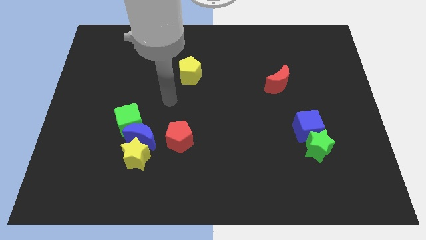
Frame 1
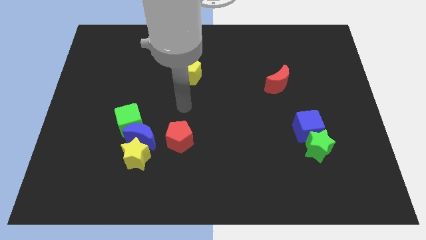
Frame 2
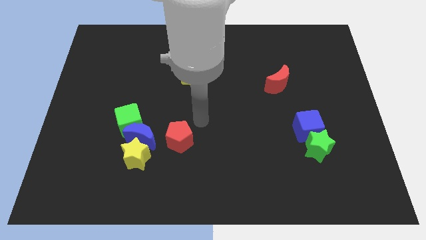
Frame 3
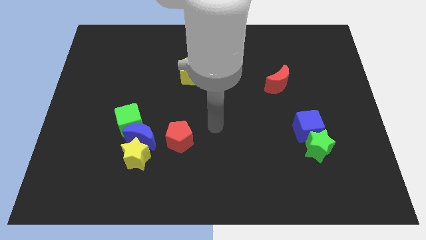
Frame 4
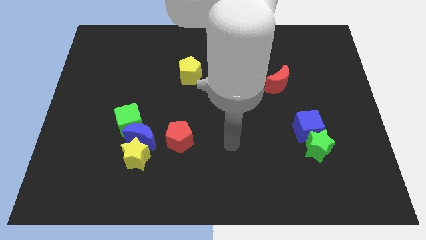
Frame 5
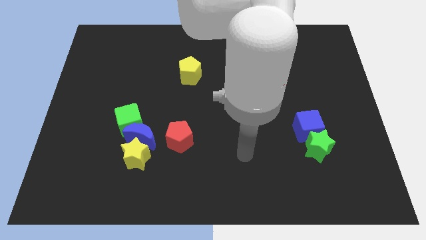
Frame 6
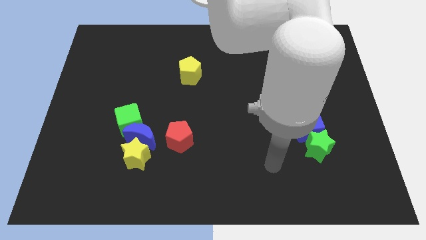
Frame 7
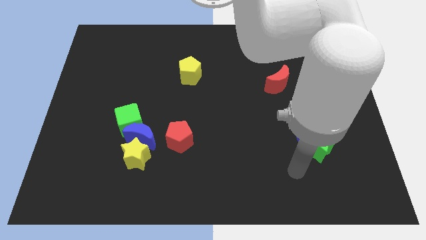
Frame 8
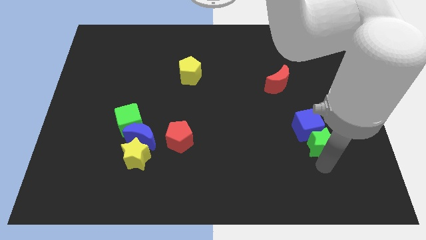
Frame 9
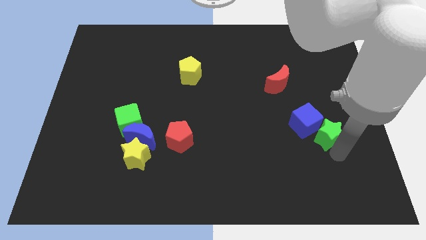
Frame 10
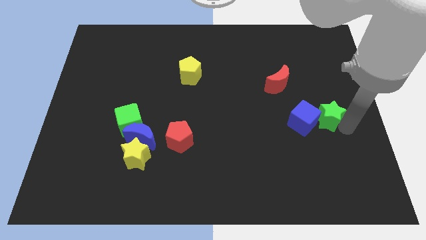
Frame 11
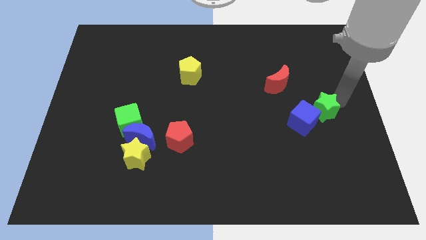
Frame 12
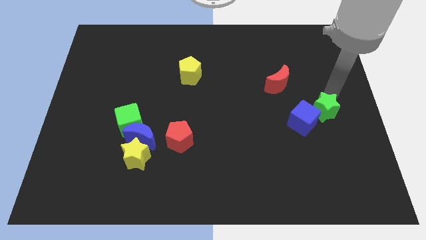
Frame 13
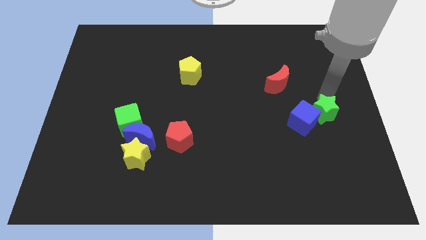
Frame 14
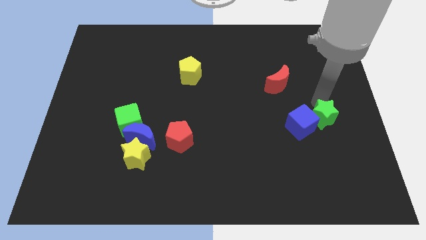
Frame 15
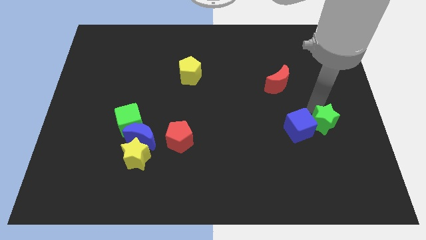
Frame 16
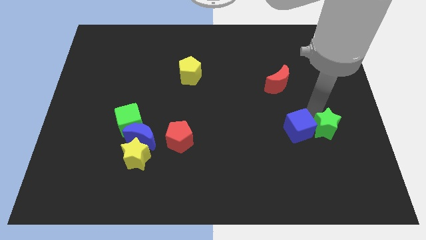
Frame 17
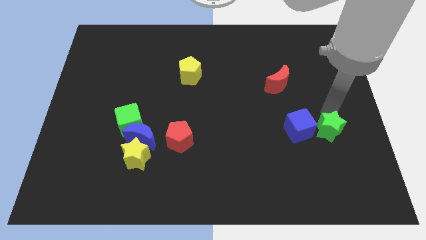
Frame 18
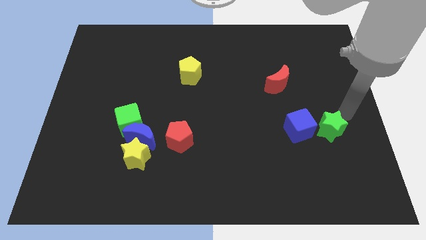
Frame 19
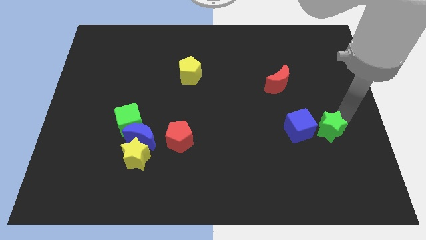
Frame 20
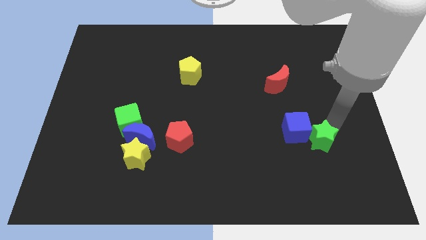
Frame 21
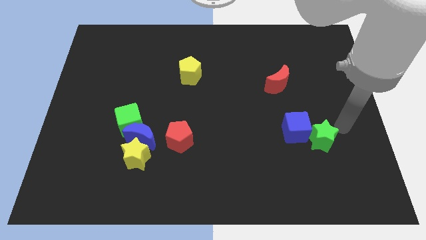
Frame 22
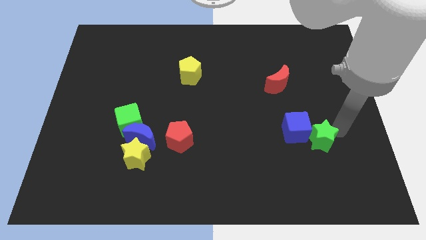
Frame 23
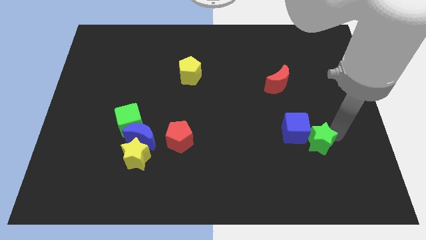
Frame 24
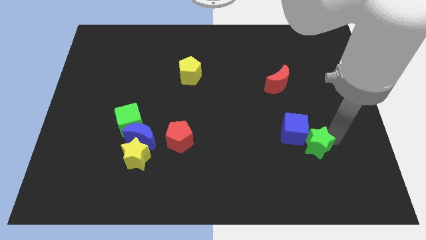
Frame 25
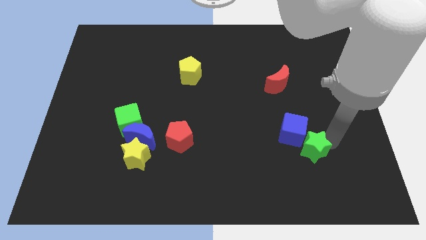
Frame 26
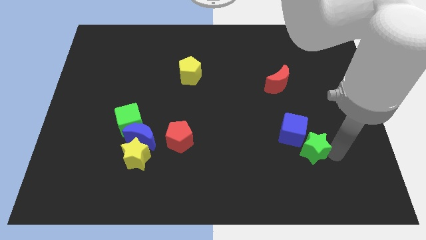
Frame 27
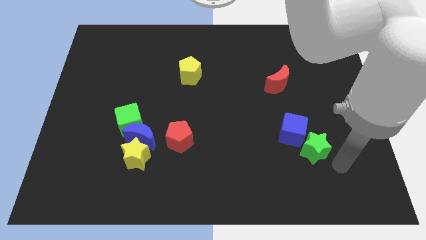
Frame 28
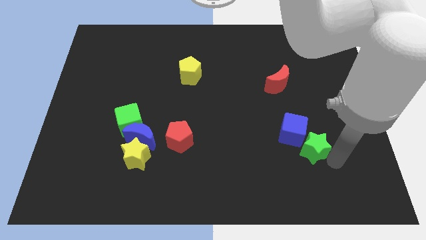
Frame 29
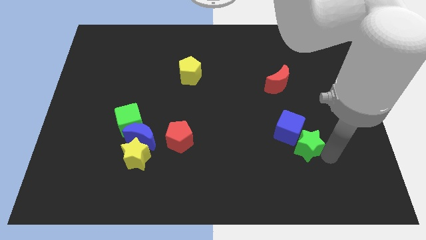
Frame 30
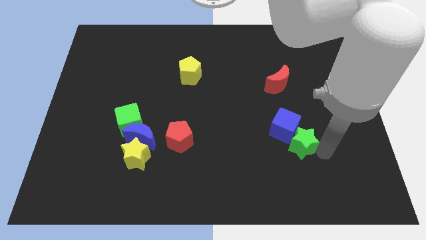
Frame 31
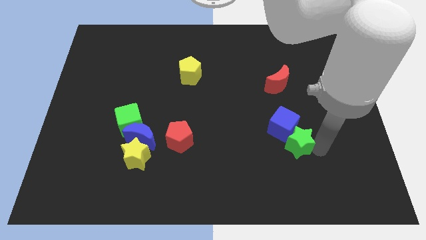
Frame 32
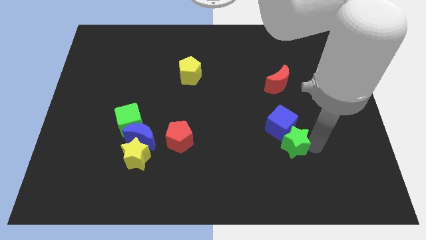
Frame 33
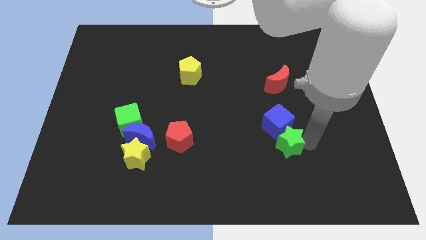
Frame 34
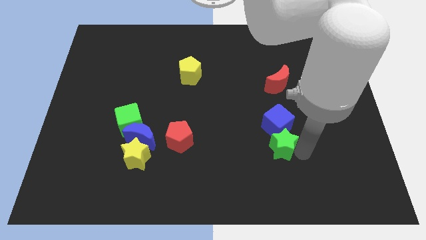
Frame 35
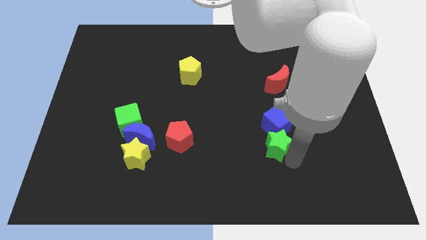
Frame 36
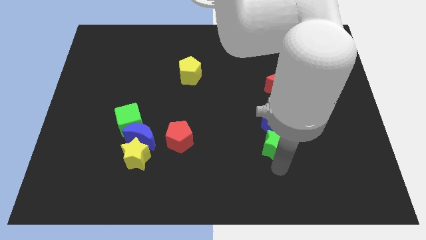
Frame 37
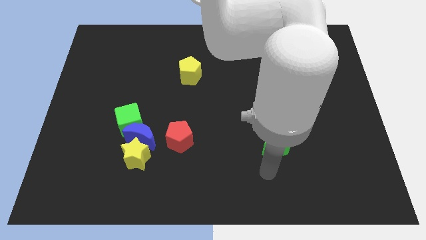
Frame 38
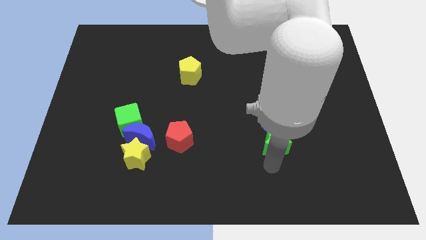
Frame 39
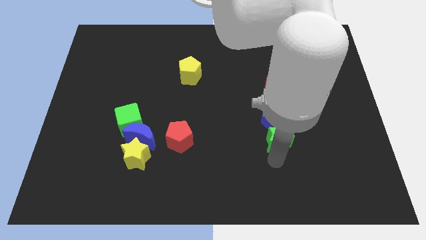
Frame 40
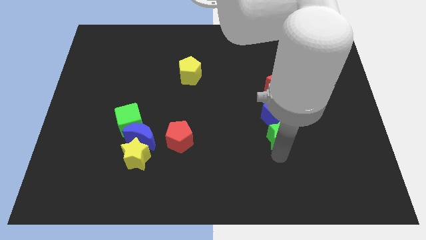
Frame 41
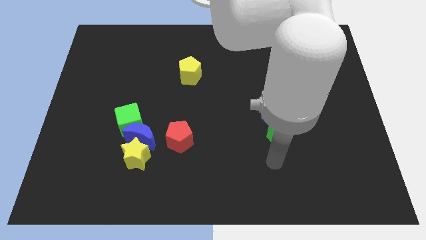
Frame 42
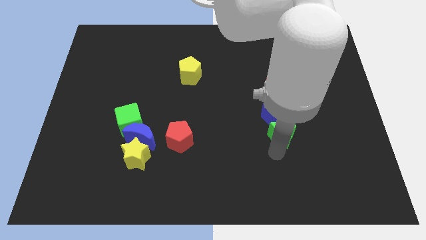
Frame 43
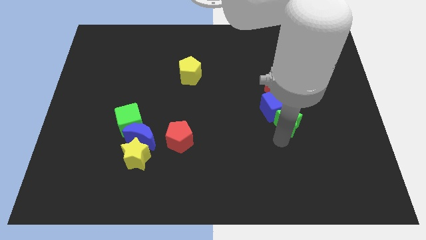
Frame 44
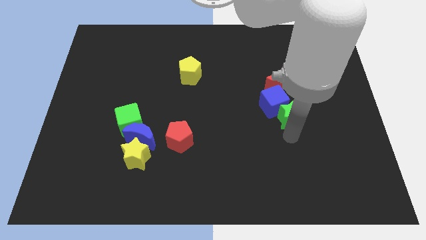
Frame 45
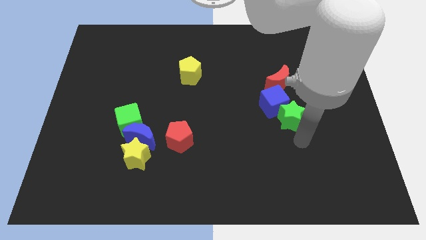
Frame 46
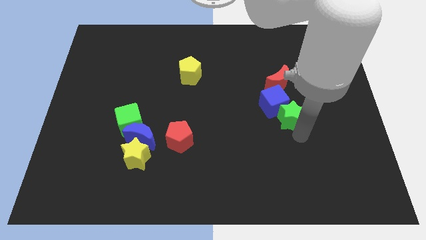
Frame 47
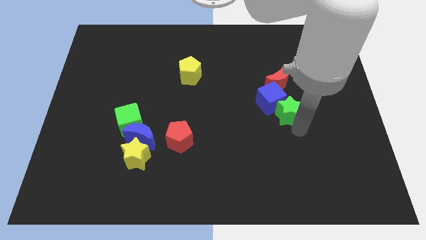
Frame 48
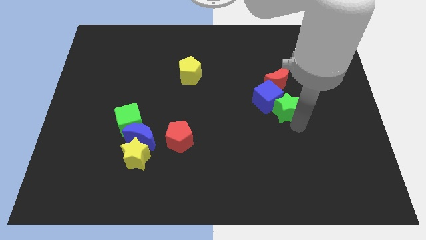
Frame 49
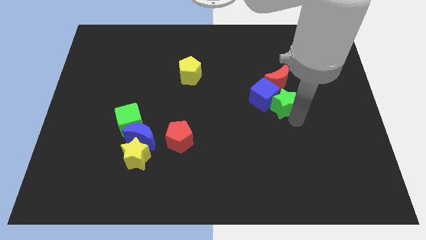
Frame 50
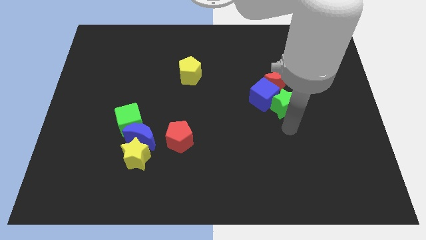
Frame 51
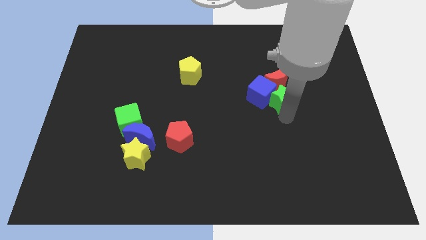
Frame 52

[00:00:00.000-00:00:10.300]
put the green star to the red moon

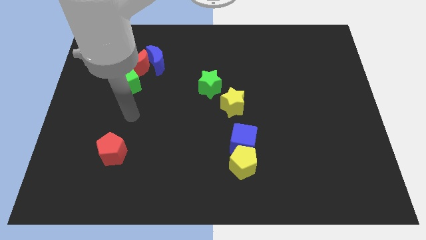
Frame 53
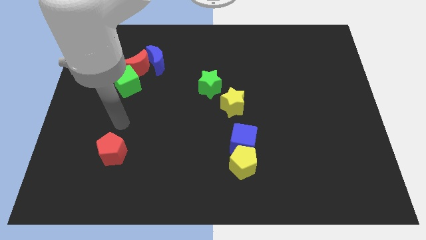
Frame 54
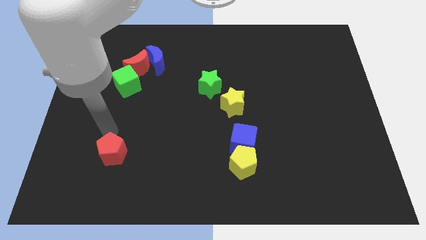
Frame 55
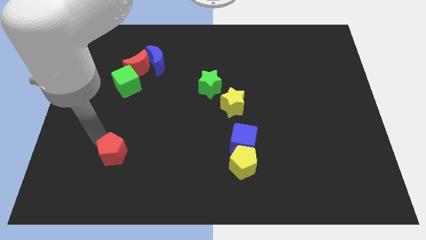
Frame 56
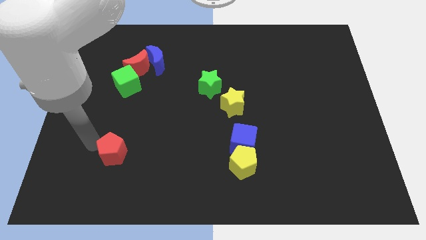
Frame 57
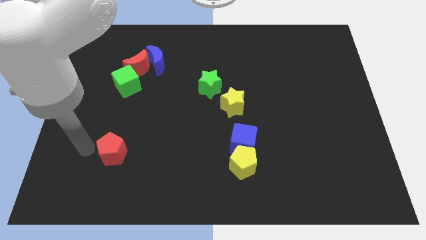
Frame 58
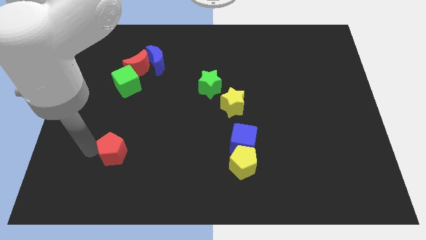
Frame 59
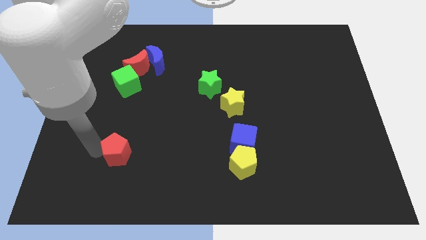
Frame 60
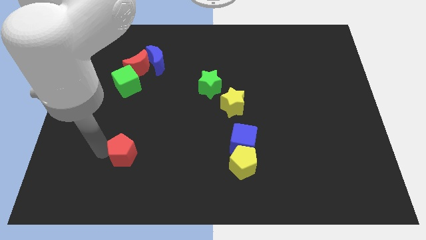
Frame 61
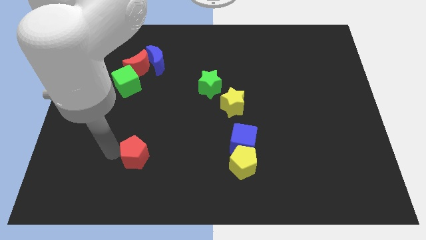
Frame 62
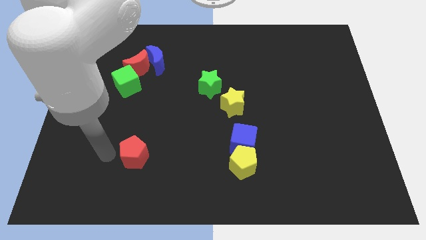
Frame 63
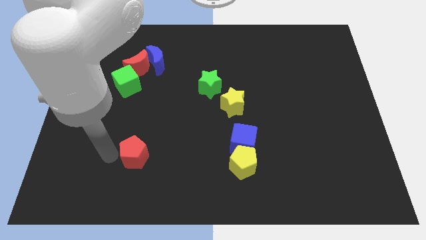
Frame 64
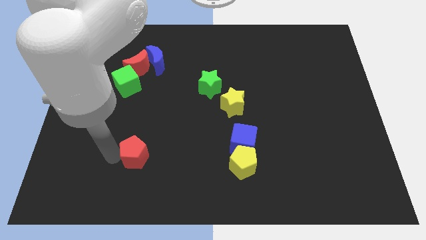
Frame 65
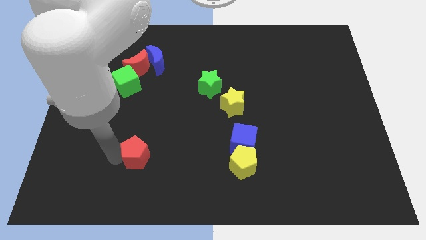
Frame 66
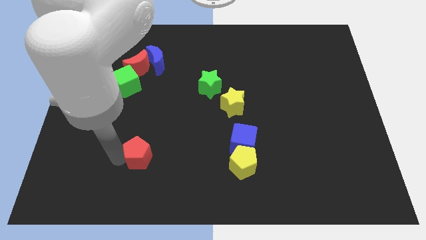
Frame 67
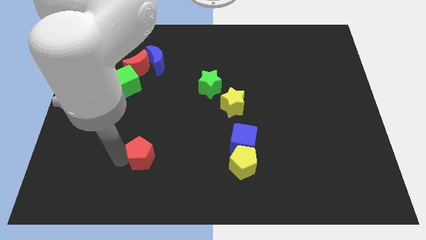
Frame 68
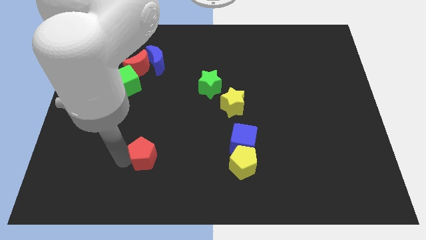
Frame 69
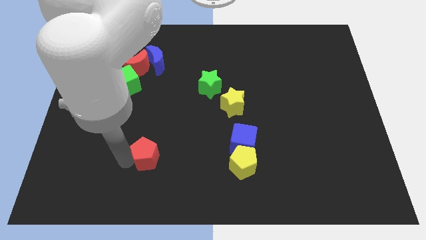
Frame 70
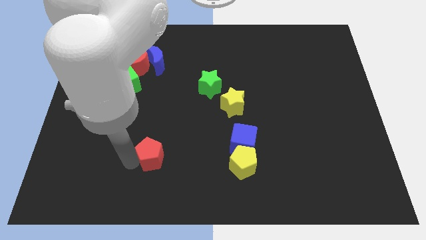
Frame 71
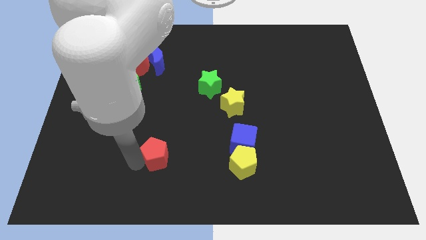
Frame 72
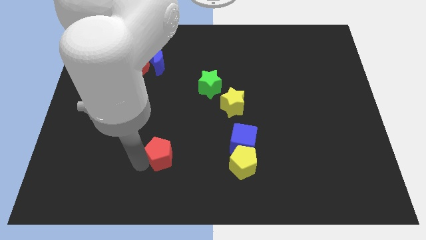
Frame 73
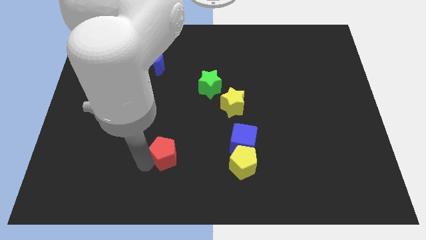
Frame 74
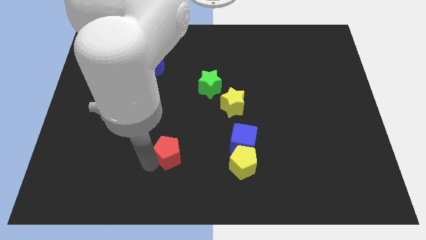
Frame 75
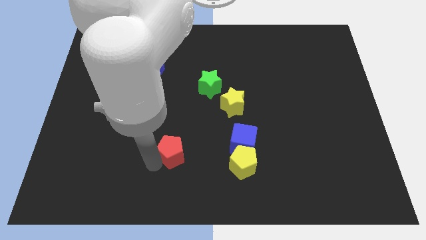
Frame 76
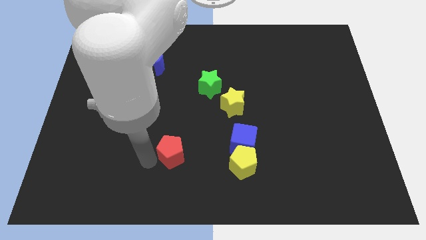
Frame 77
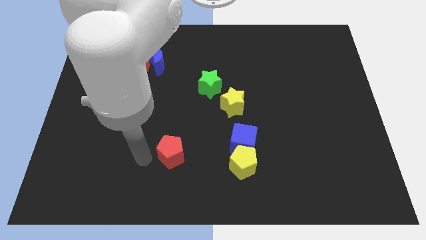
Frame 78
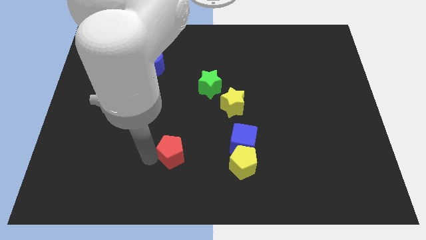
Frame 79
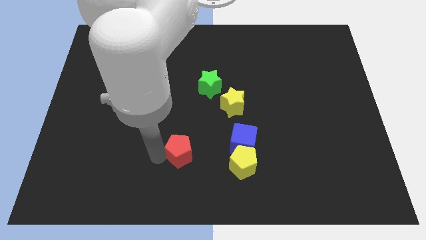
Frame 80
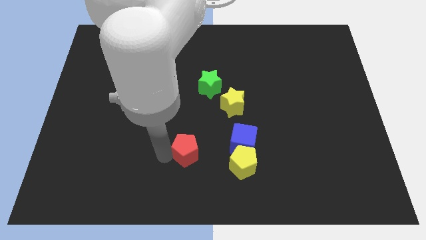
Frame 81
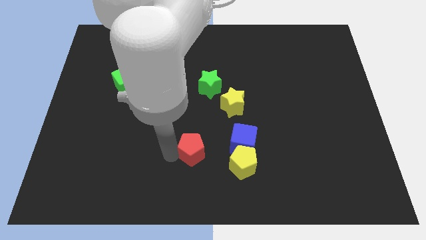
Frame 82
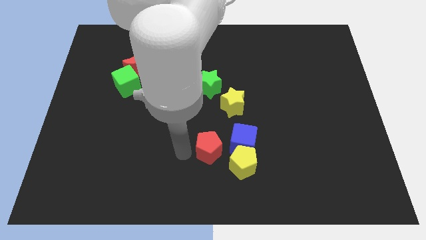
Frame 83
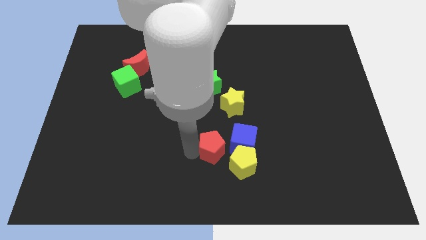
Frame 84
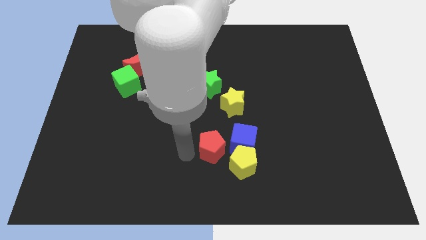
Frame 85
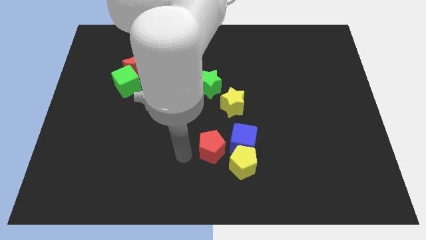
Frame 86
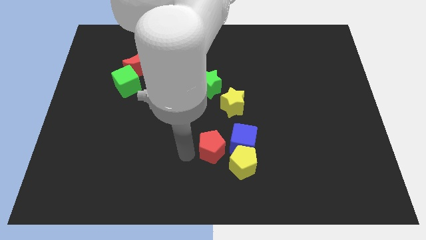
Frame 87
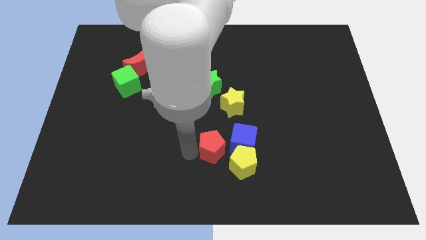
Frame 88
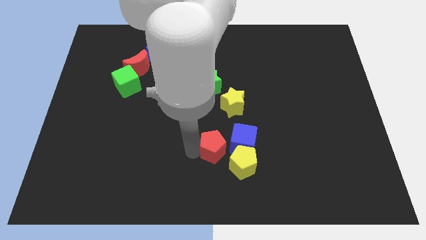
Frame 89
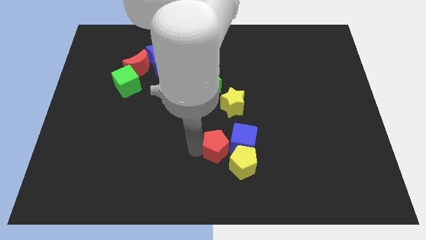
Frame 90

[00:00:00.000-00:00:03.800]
put the red pentagon to the blue cube
